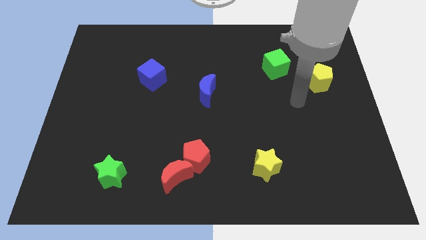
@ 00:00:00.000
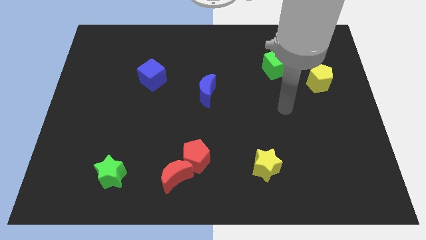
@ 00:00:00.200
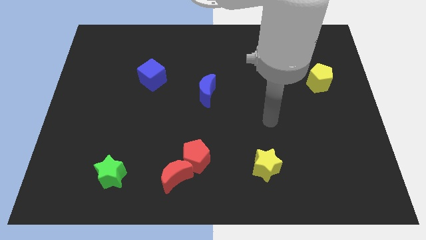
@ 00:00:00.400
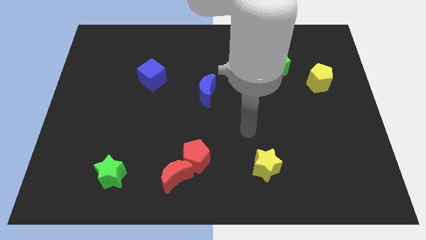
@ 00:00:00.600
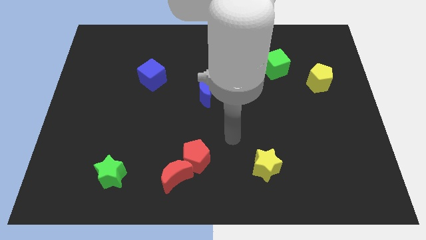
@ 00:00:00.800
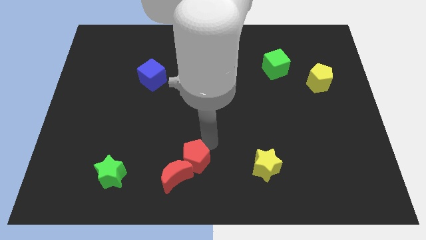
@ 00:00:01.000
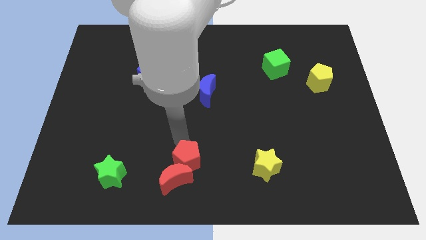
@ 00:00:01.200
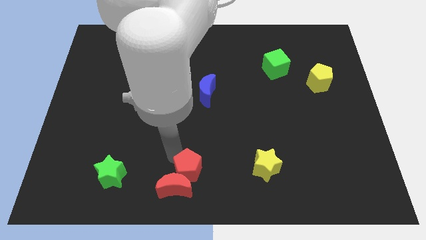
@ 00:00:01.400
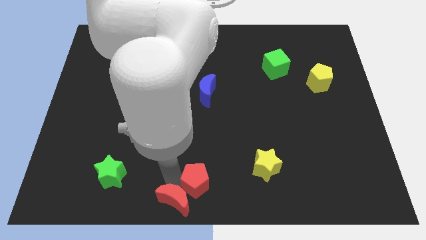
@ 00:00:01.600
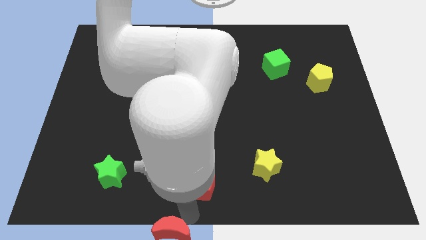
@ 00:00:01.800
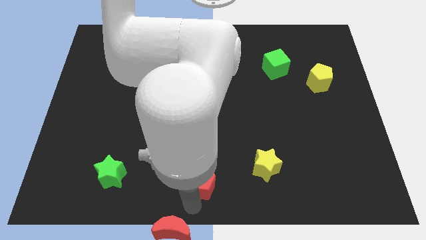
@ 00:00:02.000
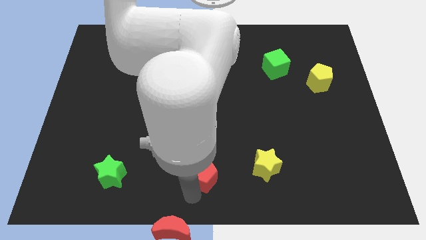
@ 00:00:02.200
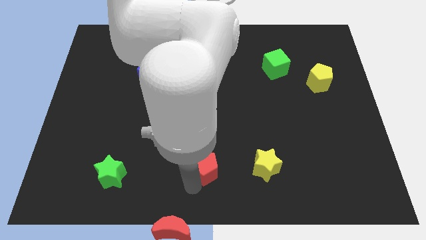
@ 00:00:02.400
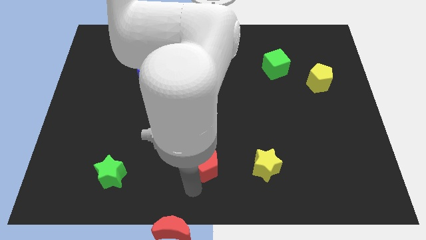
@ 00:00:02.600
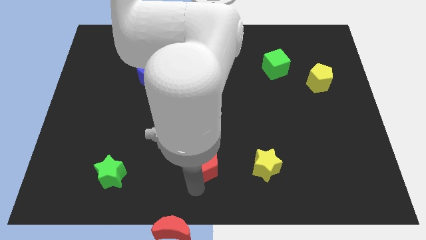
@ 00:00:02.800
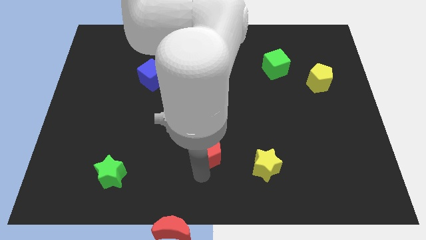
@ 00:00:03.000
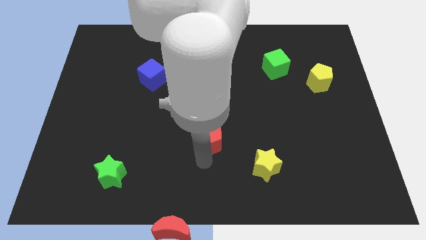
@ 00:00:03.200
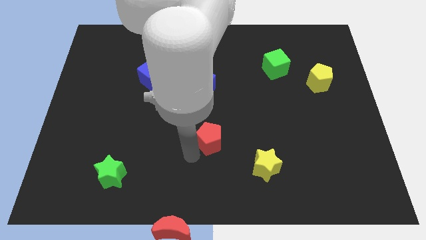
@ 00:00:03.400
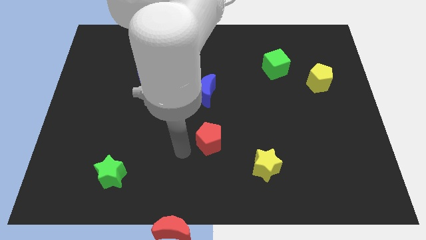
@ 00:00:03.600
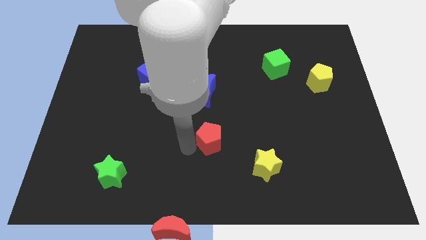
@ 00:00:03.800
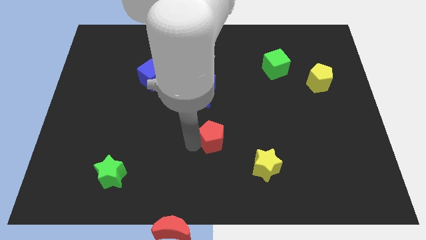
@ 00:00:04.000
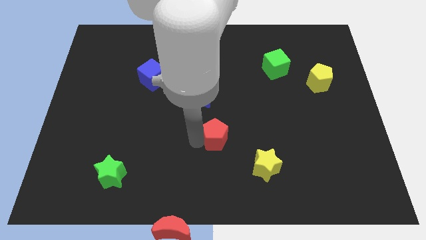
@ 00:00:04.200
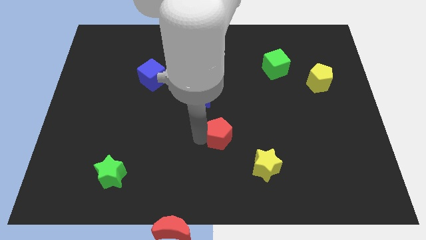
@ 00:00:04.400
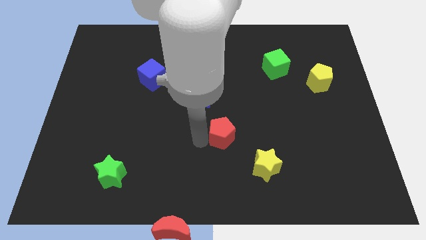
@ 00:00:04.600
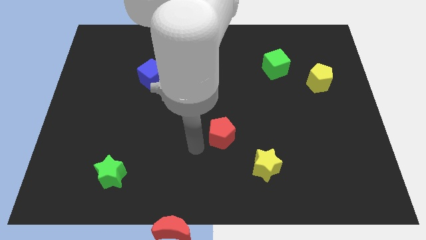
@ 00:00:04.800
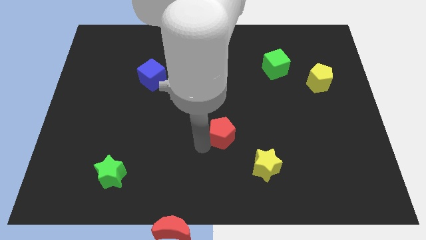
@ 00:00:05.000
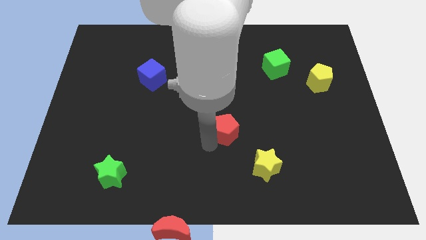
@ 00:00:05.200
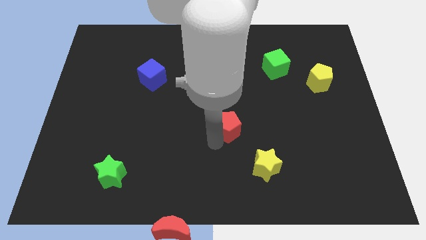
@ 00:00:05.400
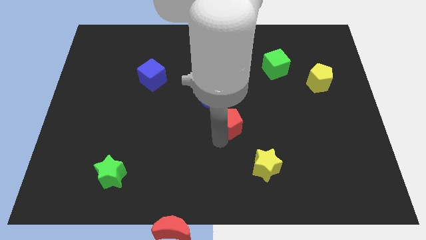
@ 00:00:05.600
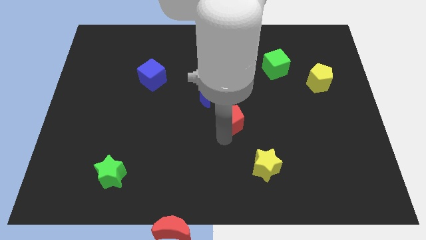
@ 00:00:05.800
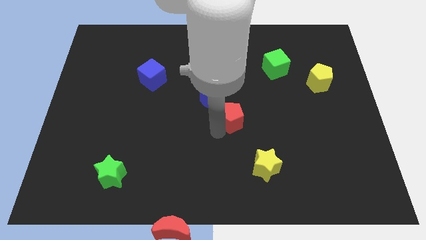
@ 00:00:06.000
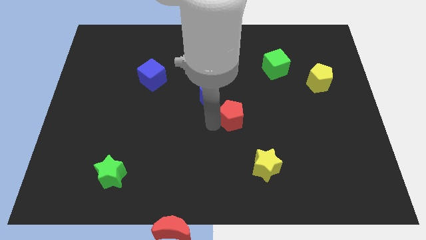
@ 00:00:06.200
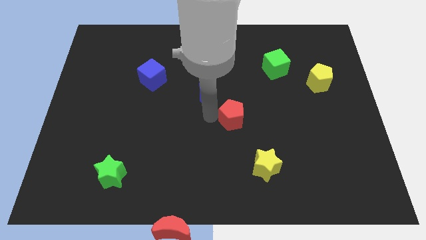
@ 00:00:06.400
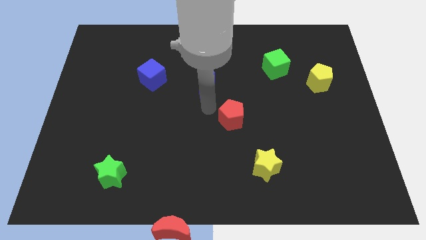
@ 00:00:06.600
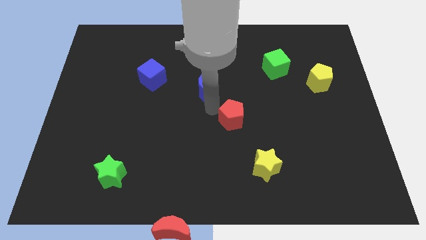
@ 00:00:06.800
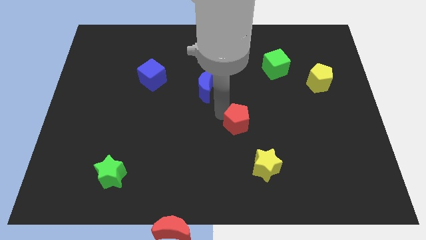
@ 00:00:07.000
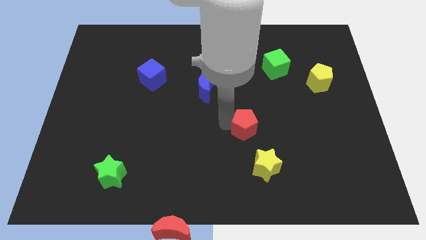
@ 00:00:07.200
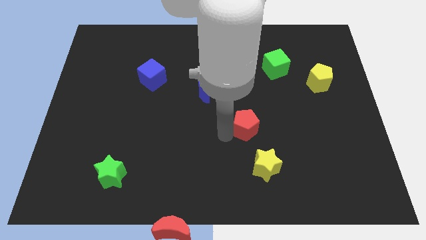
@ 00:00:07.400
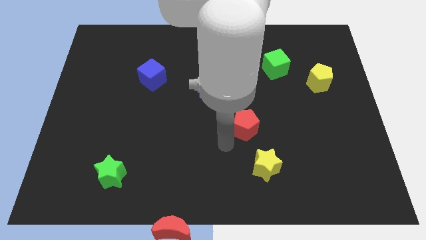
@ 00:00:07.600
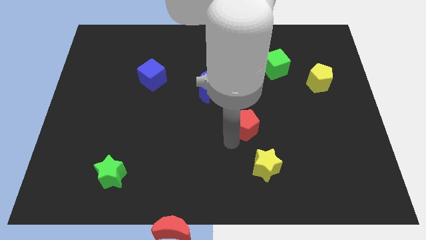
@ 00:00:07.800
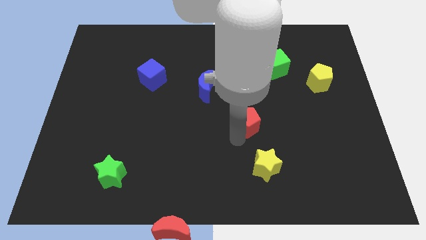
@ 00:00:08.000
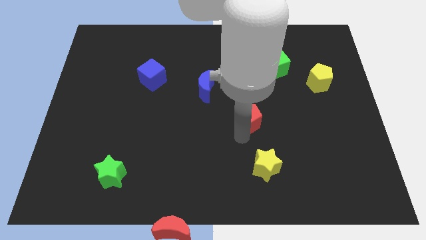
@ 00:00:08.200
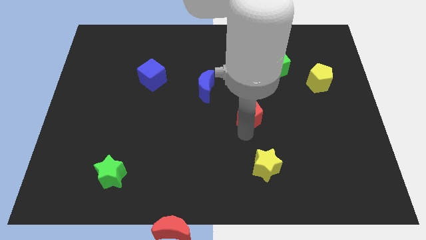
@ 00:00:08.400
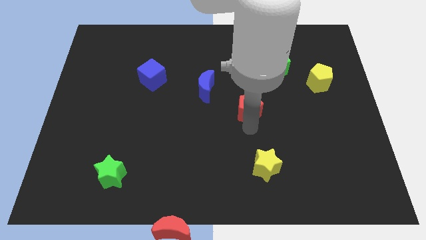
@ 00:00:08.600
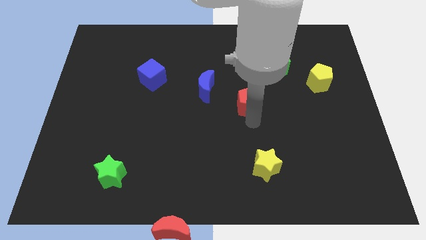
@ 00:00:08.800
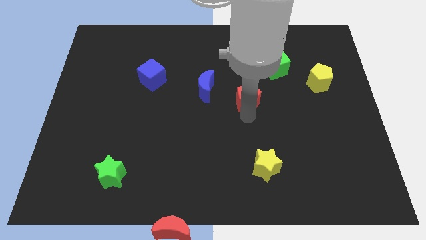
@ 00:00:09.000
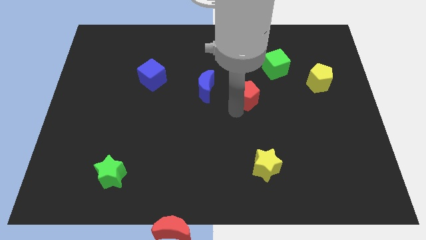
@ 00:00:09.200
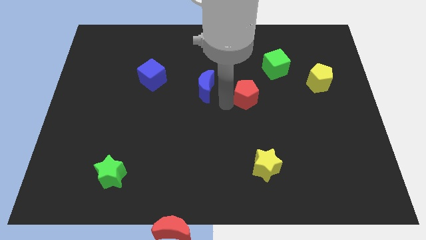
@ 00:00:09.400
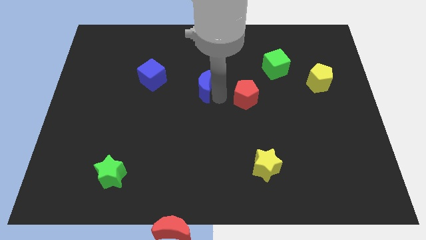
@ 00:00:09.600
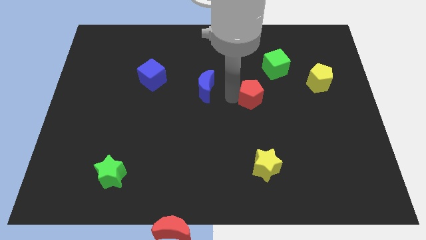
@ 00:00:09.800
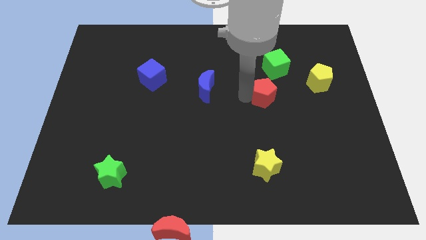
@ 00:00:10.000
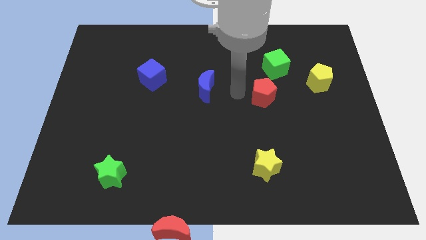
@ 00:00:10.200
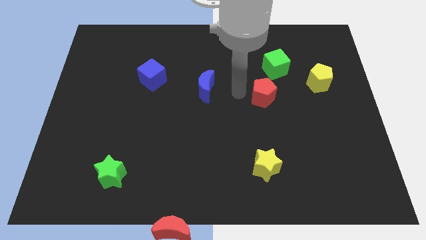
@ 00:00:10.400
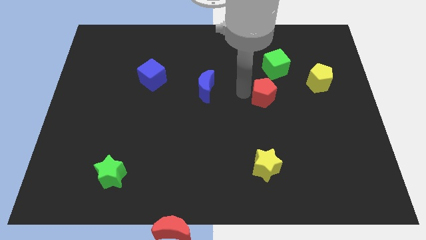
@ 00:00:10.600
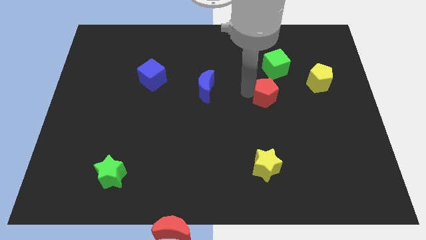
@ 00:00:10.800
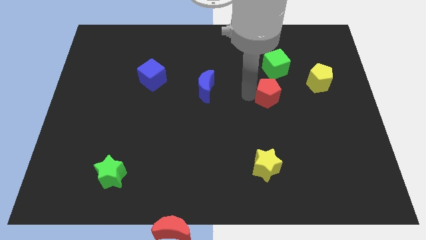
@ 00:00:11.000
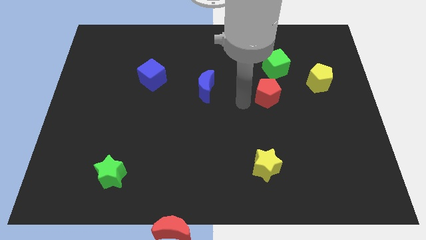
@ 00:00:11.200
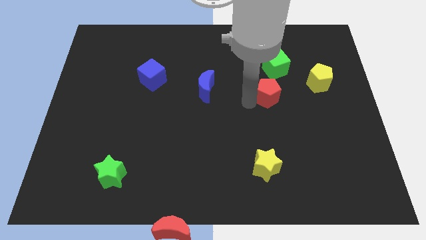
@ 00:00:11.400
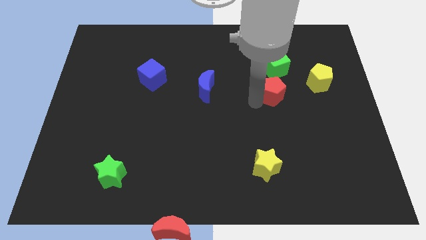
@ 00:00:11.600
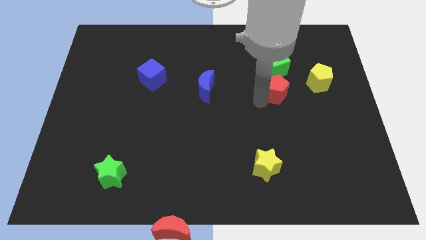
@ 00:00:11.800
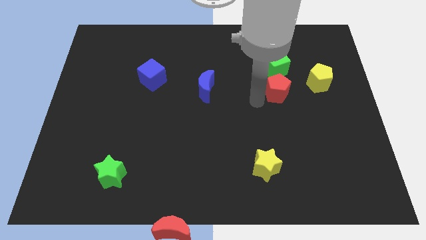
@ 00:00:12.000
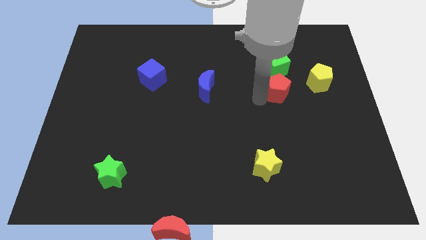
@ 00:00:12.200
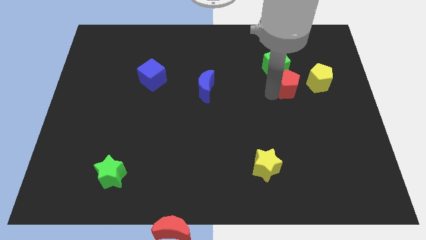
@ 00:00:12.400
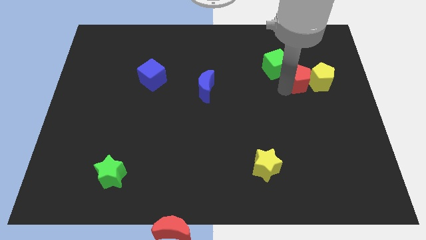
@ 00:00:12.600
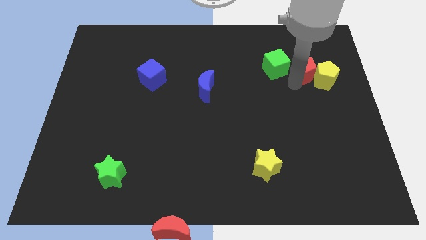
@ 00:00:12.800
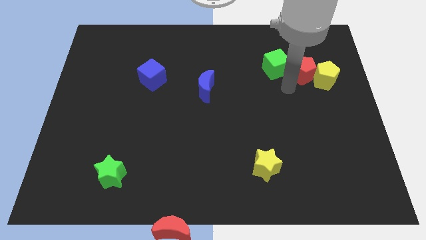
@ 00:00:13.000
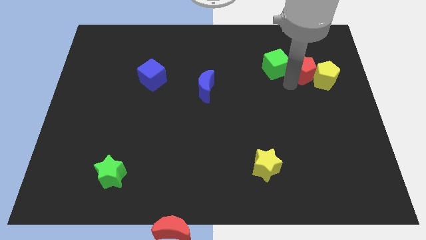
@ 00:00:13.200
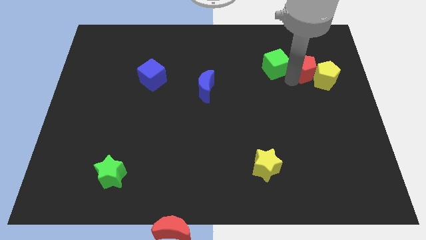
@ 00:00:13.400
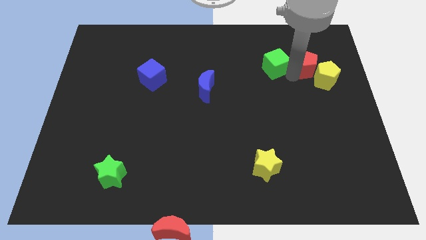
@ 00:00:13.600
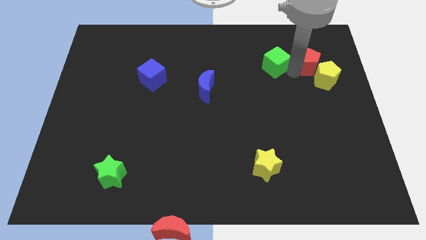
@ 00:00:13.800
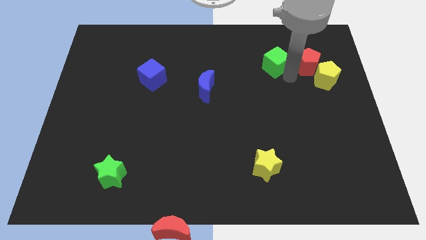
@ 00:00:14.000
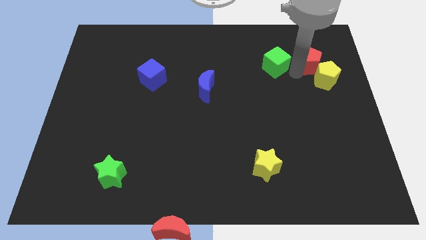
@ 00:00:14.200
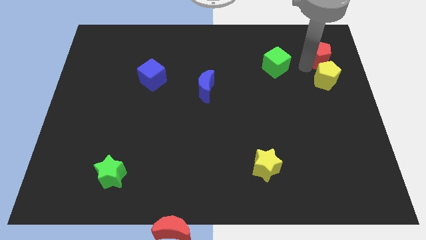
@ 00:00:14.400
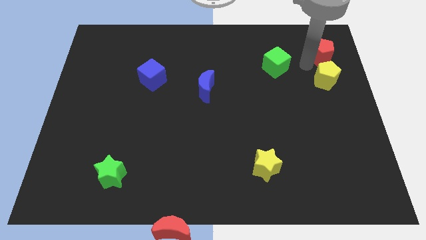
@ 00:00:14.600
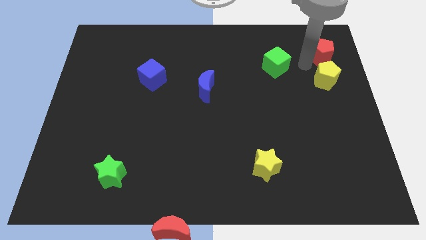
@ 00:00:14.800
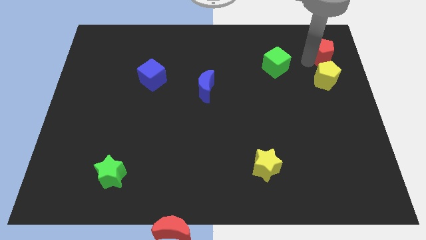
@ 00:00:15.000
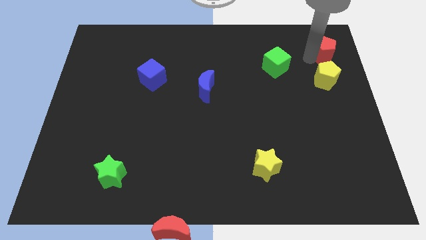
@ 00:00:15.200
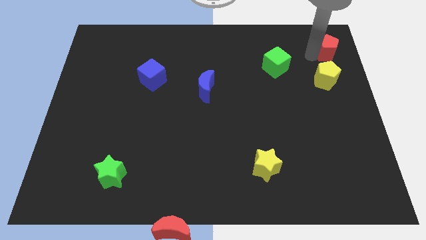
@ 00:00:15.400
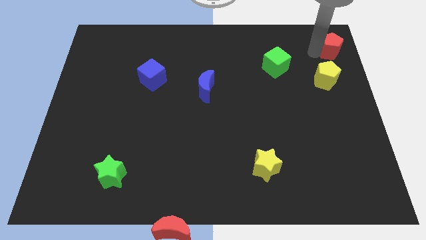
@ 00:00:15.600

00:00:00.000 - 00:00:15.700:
put the red pentagon to the upper right corner
